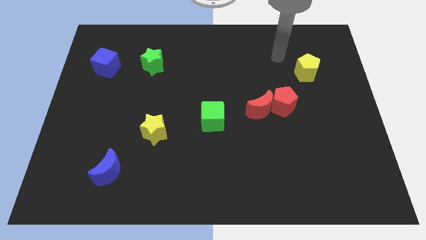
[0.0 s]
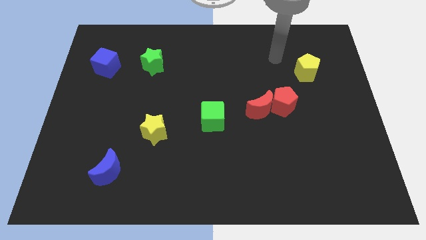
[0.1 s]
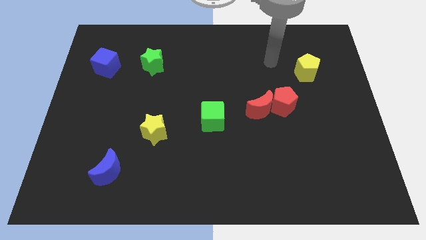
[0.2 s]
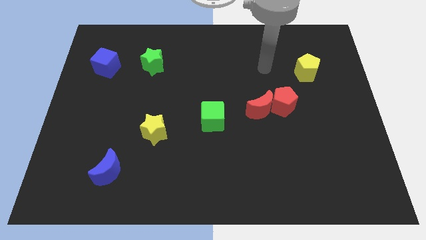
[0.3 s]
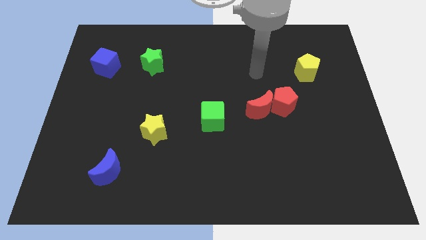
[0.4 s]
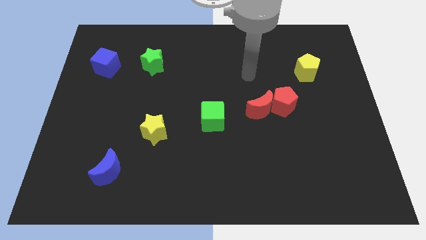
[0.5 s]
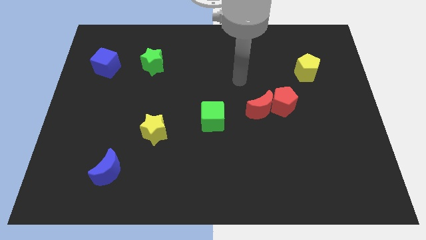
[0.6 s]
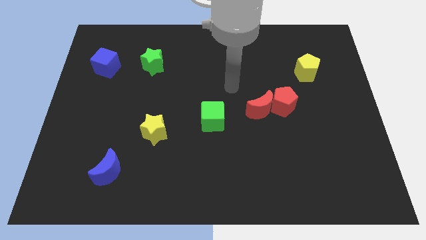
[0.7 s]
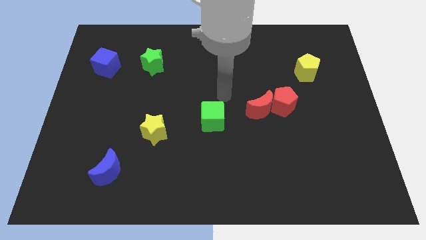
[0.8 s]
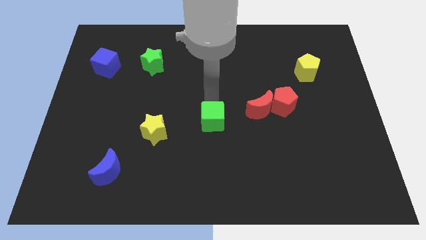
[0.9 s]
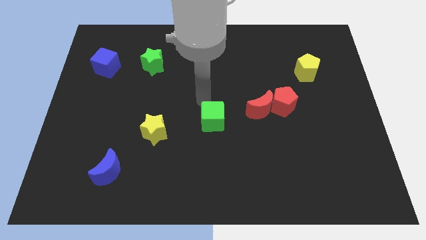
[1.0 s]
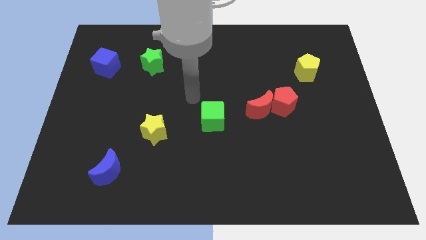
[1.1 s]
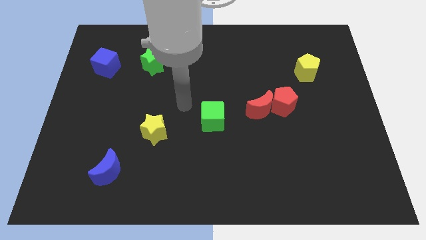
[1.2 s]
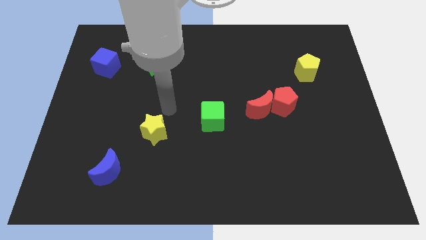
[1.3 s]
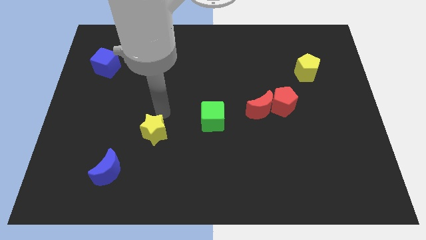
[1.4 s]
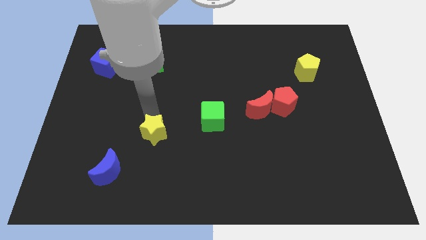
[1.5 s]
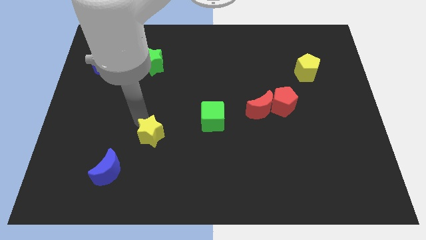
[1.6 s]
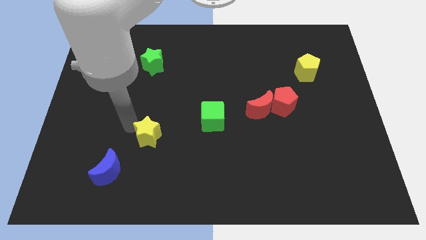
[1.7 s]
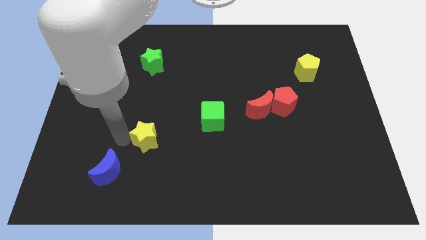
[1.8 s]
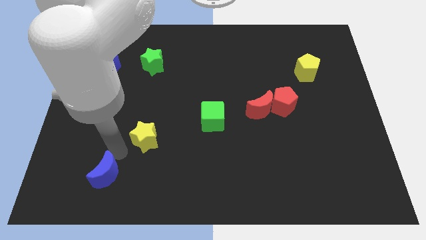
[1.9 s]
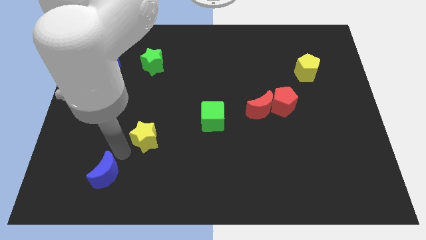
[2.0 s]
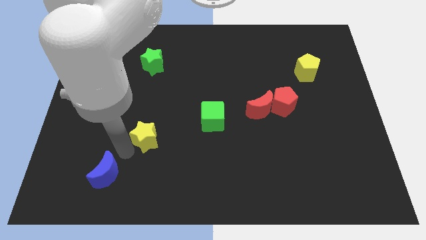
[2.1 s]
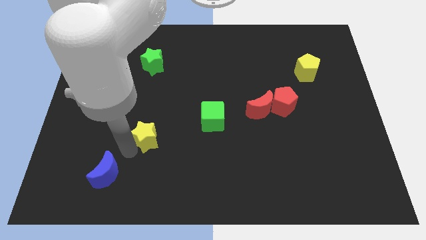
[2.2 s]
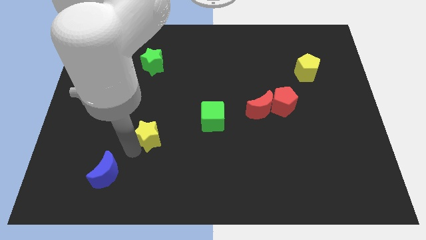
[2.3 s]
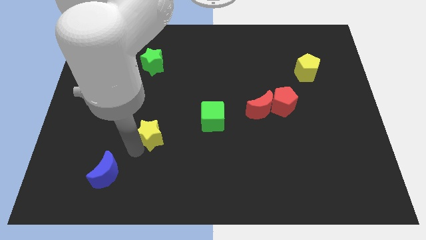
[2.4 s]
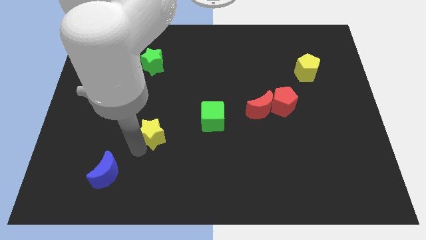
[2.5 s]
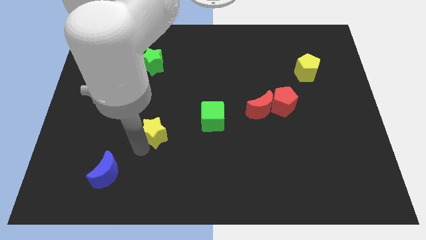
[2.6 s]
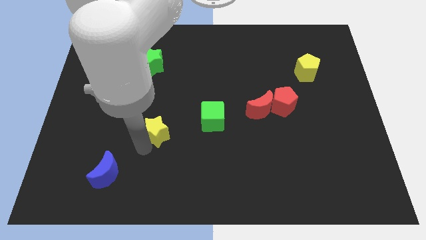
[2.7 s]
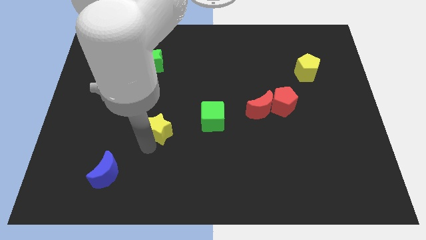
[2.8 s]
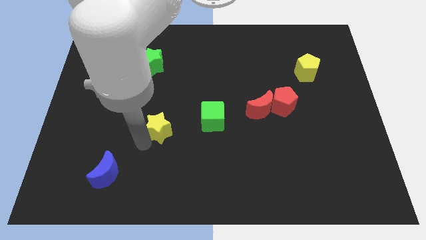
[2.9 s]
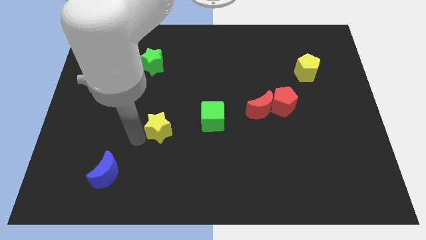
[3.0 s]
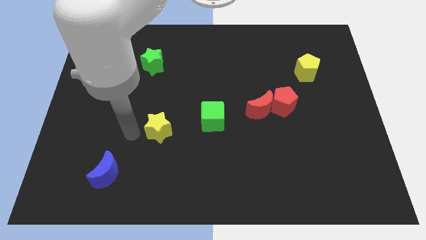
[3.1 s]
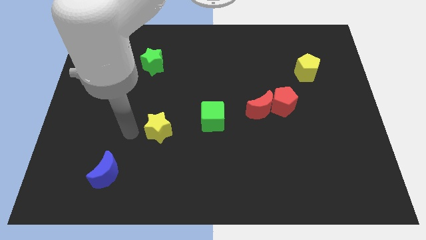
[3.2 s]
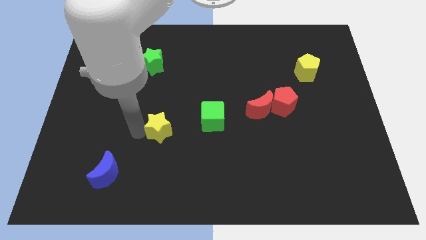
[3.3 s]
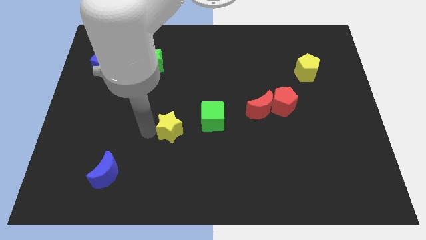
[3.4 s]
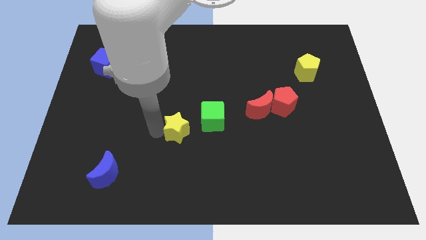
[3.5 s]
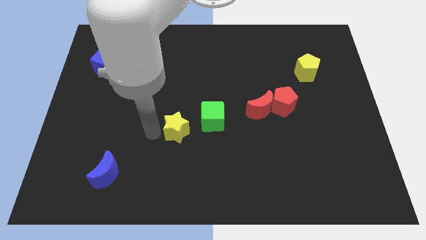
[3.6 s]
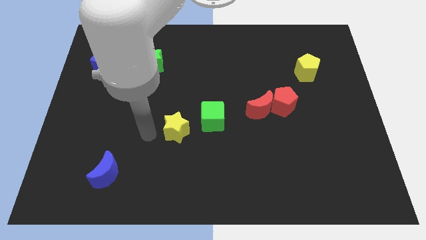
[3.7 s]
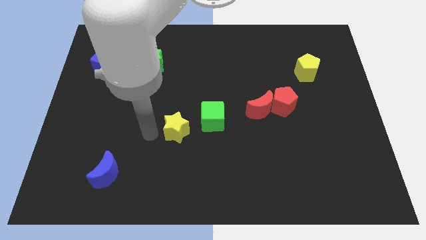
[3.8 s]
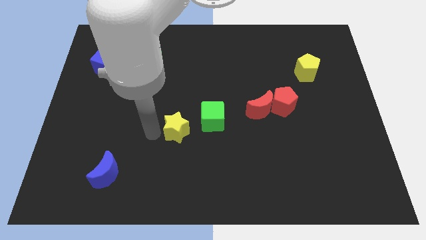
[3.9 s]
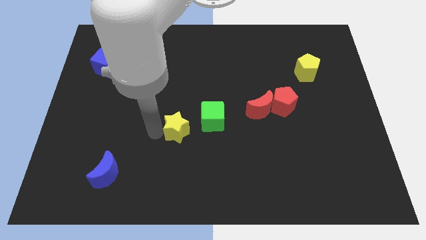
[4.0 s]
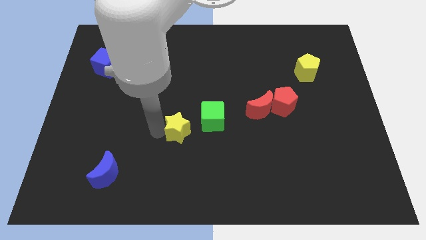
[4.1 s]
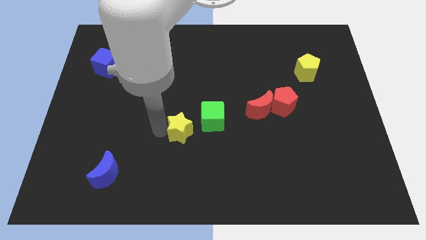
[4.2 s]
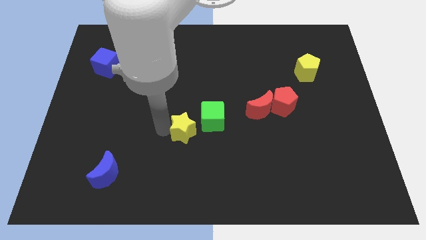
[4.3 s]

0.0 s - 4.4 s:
slightly slide the yellow star to the right

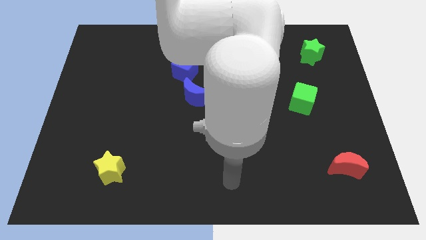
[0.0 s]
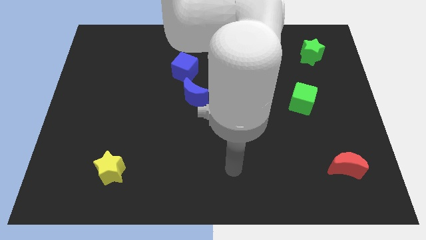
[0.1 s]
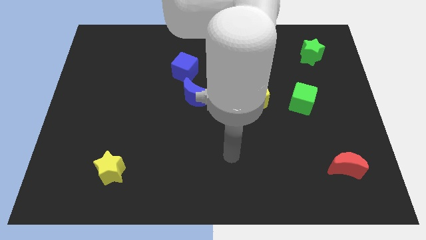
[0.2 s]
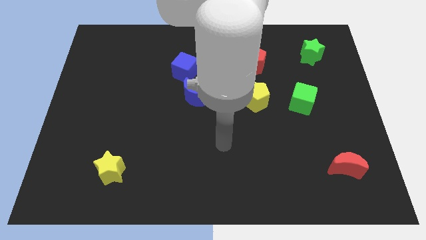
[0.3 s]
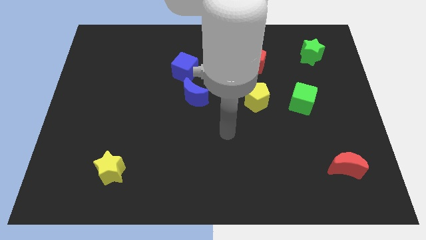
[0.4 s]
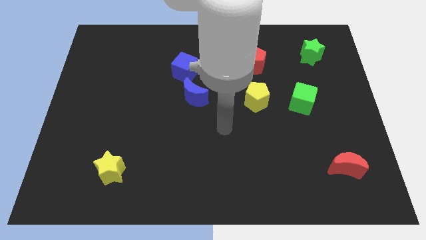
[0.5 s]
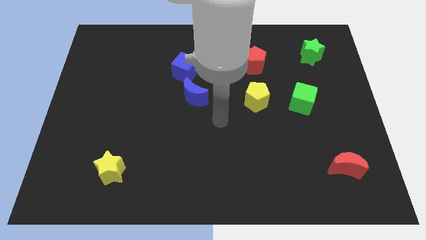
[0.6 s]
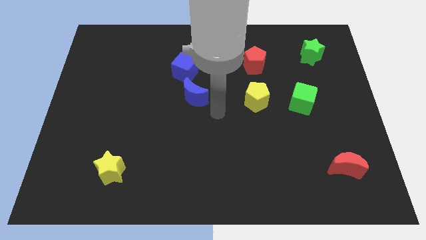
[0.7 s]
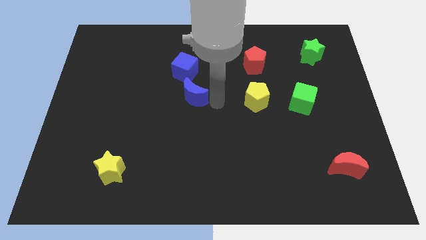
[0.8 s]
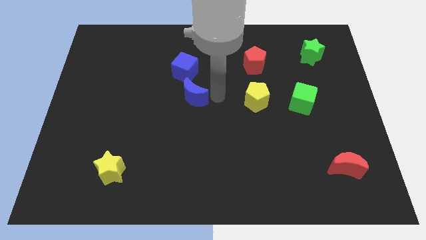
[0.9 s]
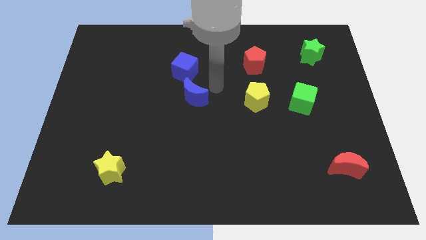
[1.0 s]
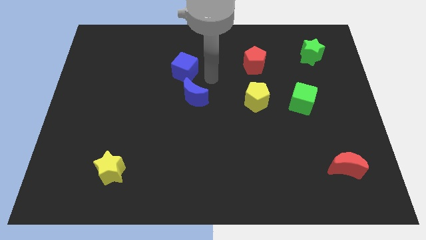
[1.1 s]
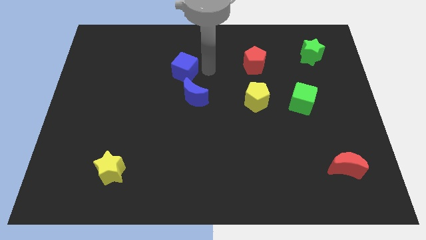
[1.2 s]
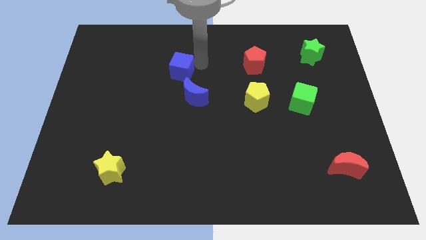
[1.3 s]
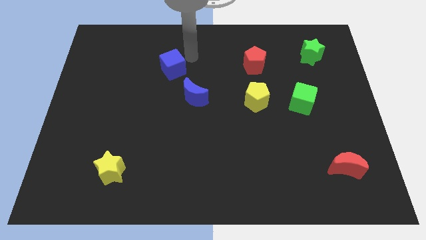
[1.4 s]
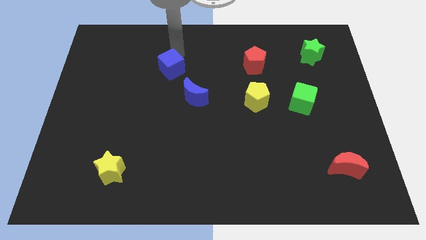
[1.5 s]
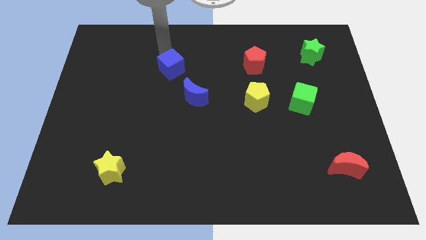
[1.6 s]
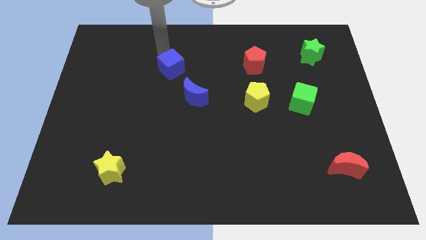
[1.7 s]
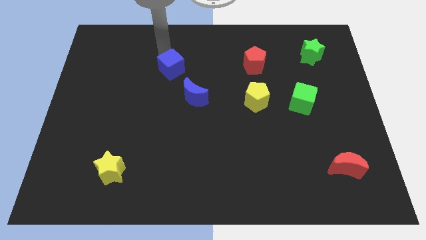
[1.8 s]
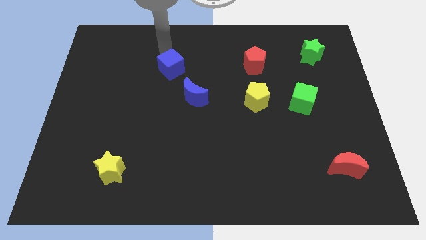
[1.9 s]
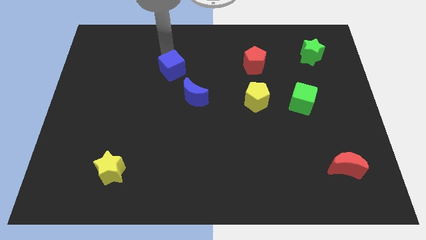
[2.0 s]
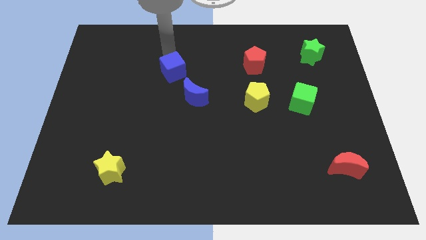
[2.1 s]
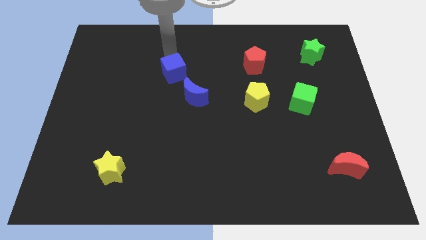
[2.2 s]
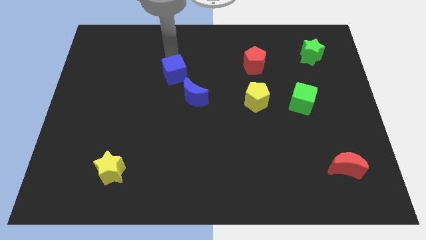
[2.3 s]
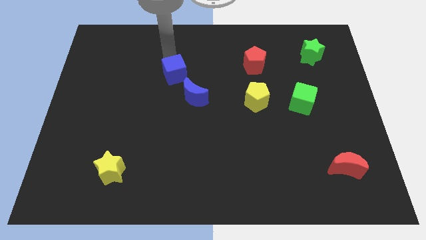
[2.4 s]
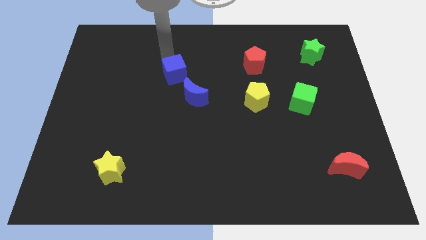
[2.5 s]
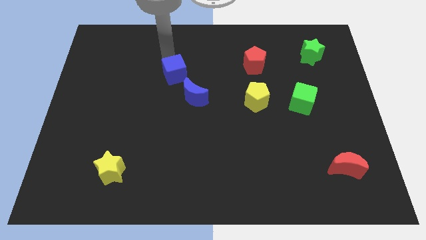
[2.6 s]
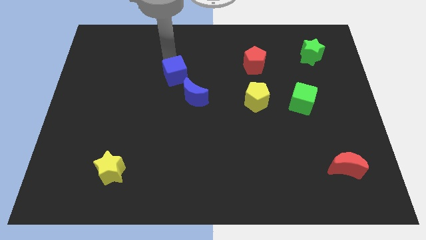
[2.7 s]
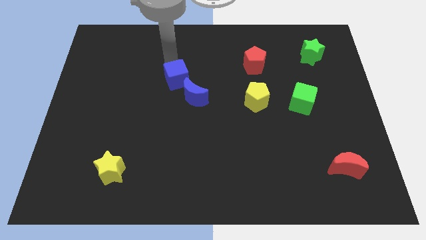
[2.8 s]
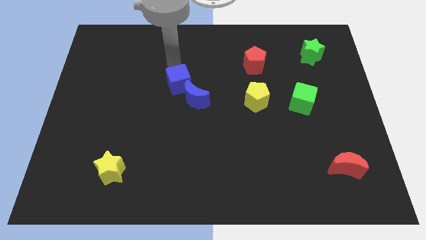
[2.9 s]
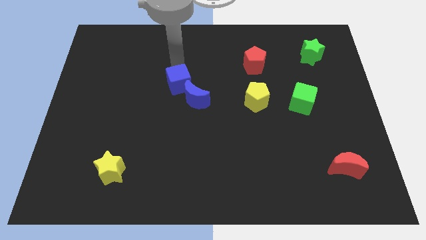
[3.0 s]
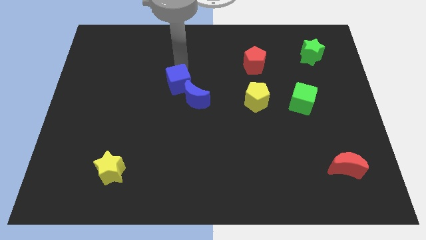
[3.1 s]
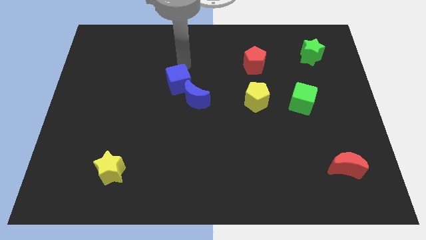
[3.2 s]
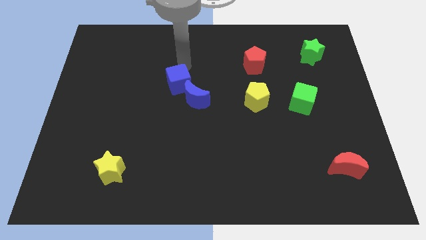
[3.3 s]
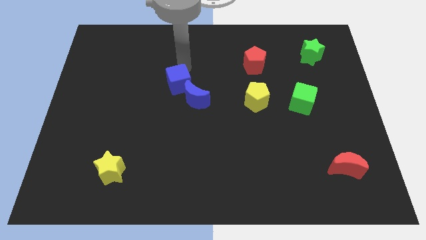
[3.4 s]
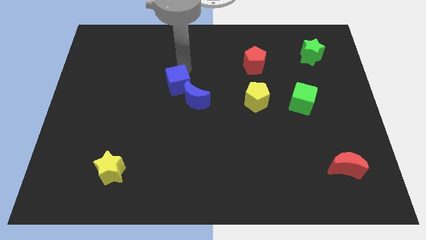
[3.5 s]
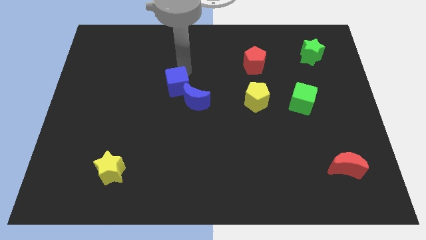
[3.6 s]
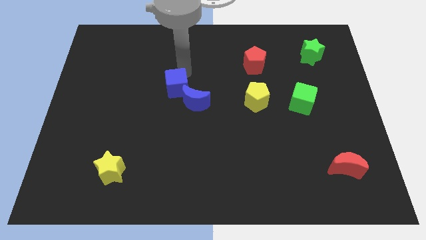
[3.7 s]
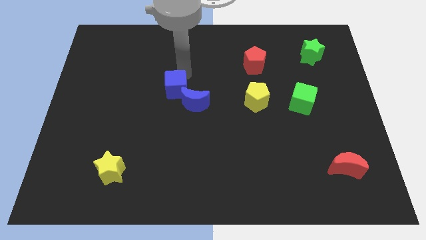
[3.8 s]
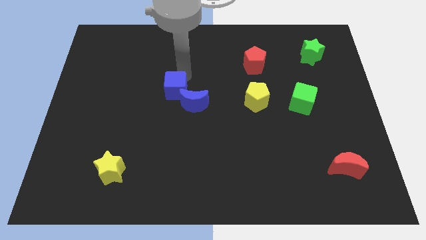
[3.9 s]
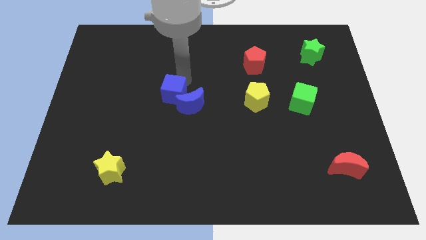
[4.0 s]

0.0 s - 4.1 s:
slide the blue cube somewhat downwards
